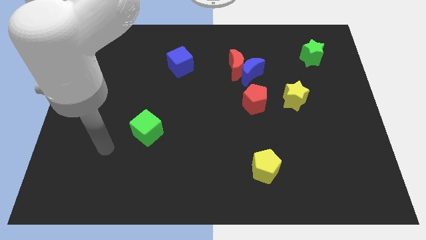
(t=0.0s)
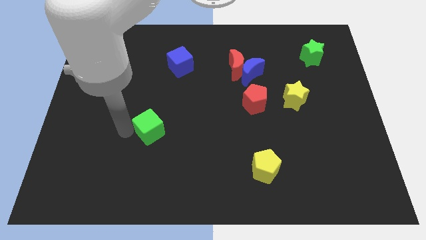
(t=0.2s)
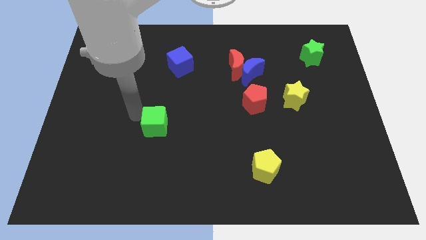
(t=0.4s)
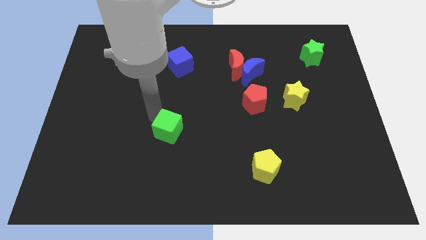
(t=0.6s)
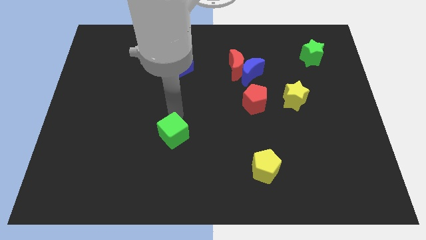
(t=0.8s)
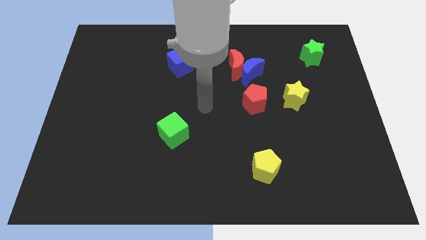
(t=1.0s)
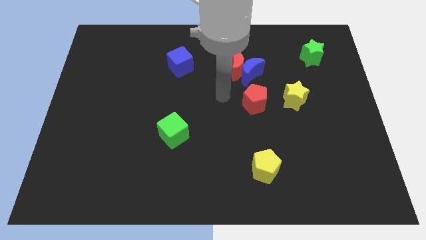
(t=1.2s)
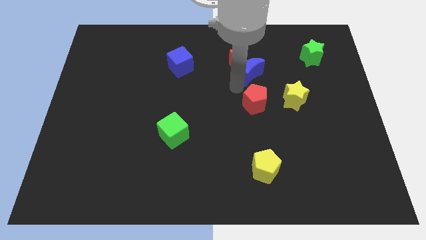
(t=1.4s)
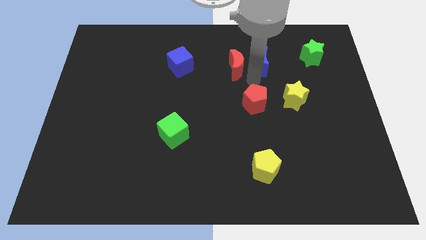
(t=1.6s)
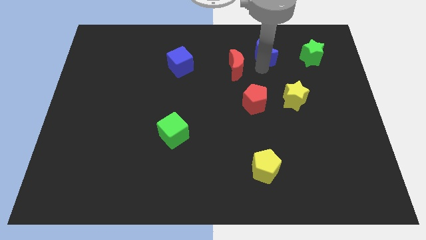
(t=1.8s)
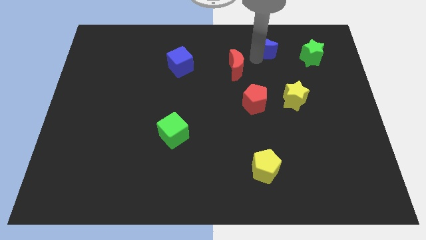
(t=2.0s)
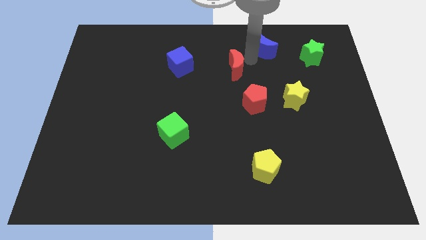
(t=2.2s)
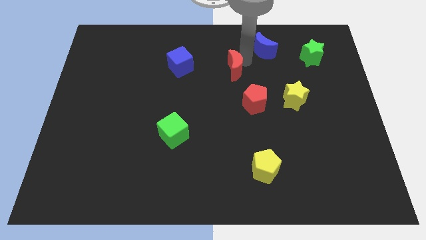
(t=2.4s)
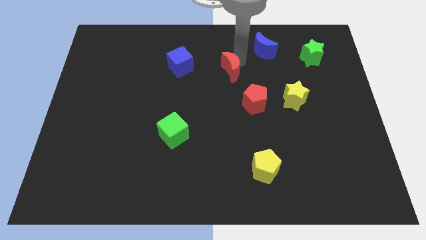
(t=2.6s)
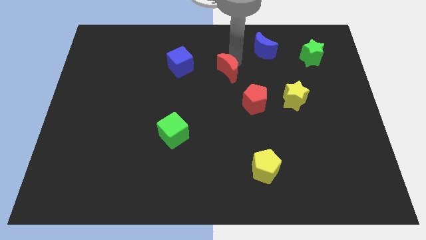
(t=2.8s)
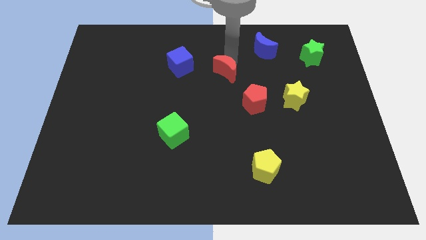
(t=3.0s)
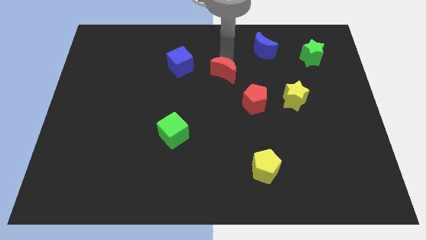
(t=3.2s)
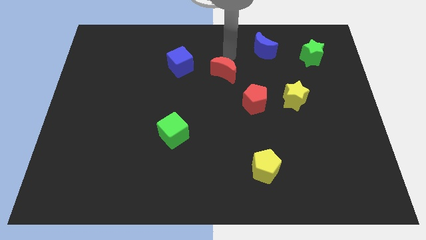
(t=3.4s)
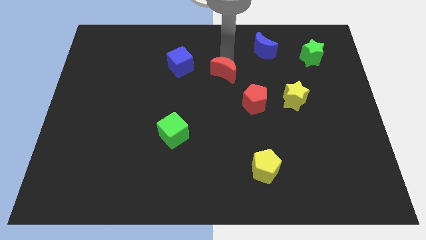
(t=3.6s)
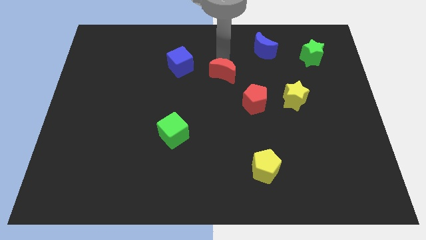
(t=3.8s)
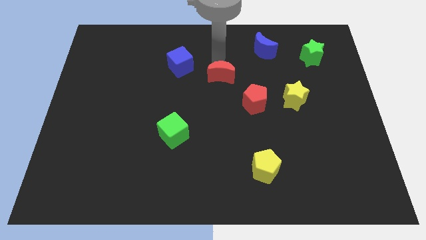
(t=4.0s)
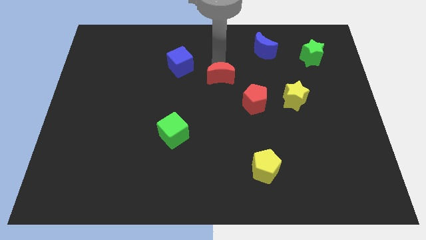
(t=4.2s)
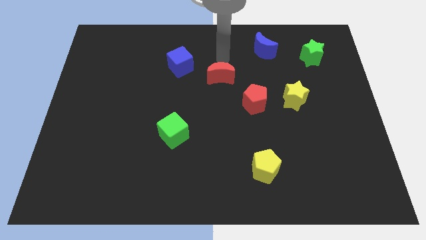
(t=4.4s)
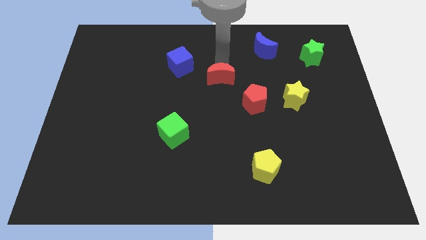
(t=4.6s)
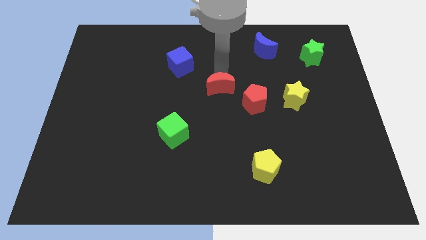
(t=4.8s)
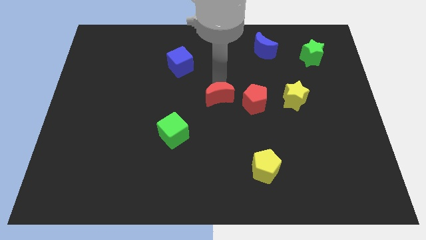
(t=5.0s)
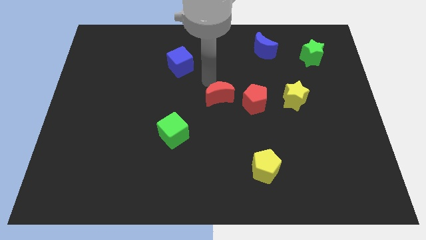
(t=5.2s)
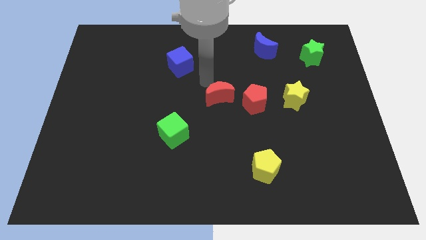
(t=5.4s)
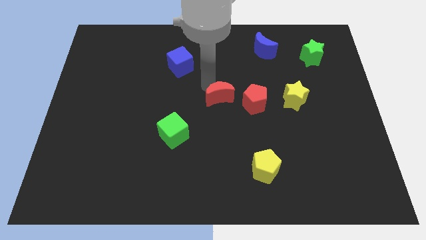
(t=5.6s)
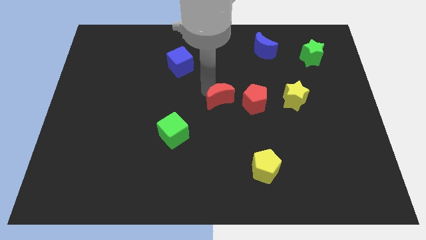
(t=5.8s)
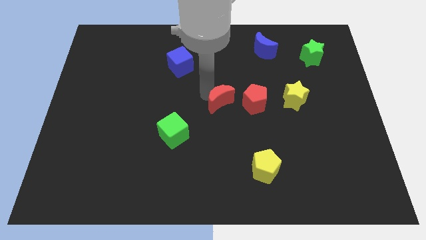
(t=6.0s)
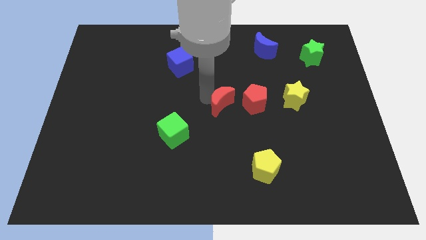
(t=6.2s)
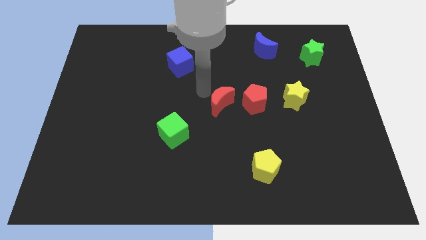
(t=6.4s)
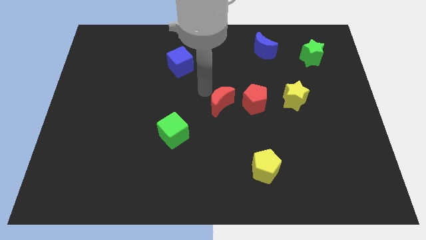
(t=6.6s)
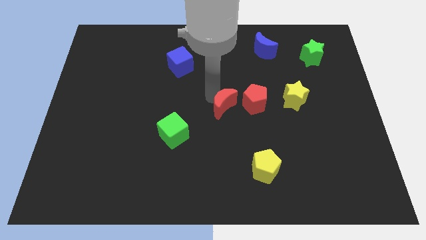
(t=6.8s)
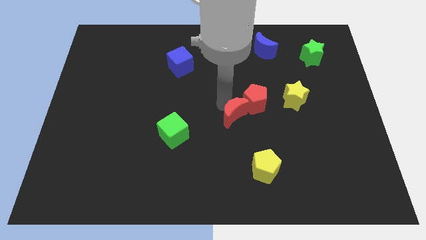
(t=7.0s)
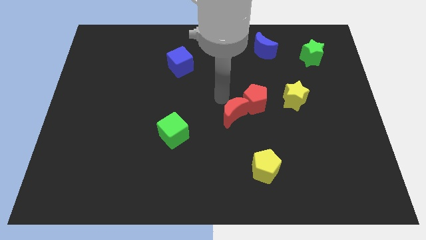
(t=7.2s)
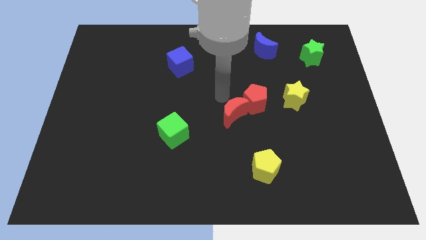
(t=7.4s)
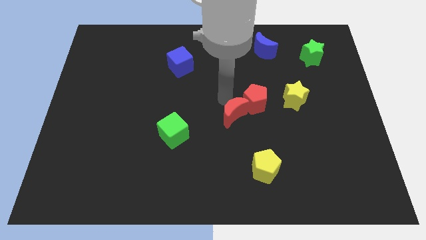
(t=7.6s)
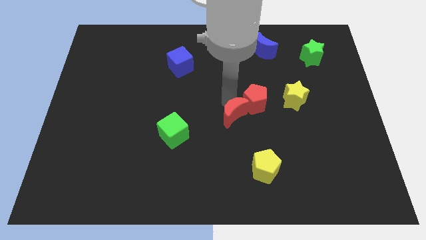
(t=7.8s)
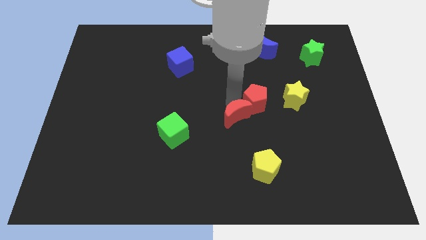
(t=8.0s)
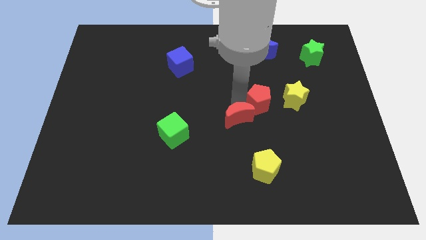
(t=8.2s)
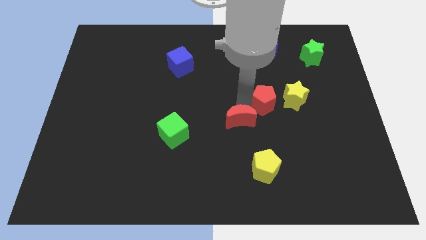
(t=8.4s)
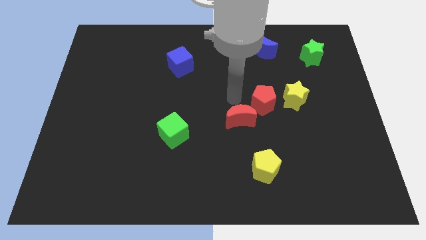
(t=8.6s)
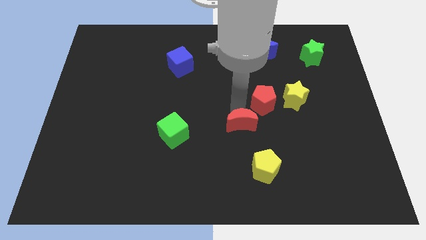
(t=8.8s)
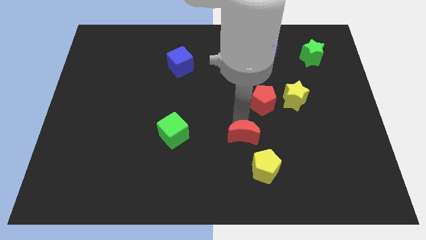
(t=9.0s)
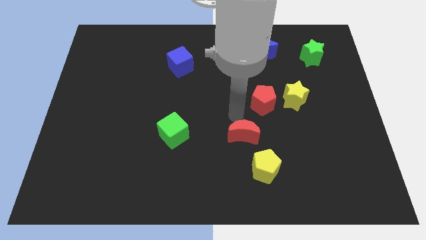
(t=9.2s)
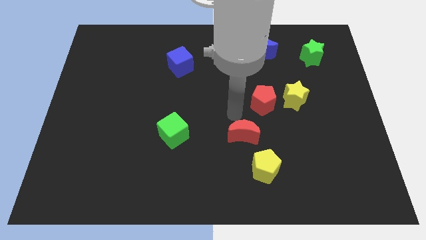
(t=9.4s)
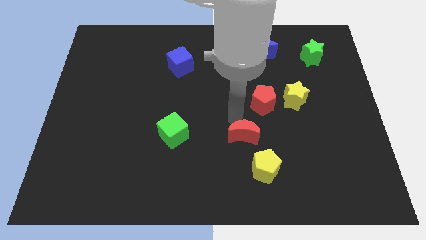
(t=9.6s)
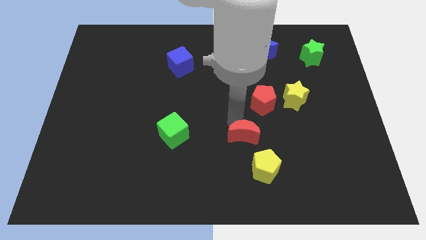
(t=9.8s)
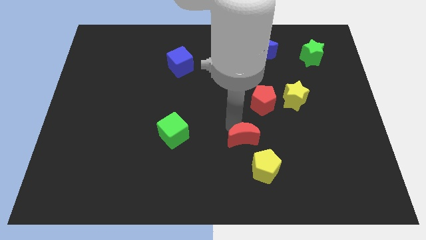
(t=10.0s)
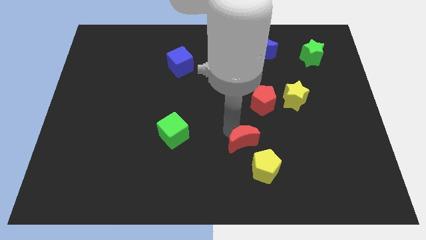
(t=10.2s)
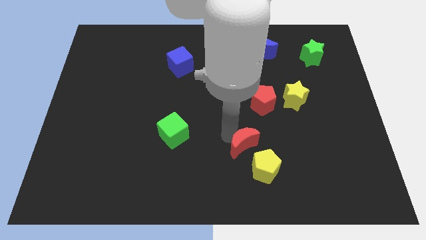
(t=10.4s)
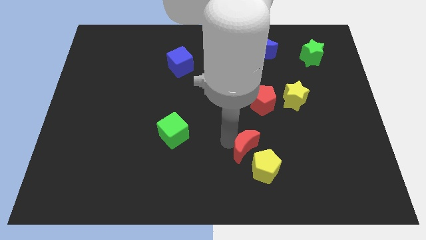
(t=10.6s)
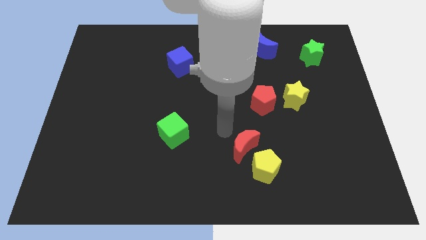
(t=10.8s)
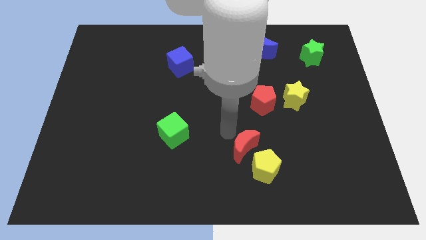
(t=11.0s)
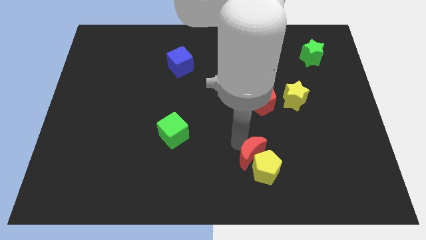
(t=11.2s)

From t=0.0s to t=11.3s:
slide the red moon towards the yellow pentagon

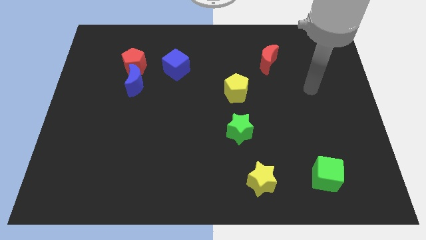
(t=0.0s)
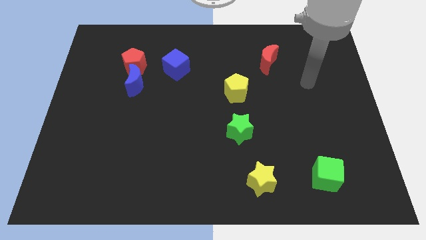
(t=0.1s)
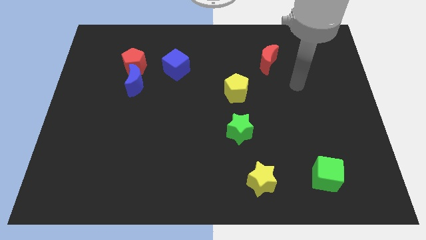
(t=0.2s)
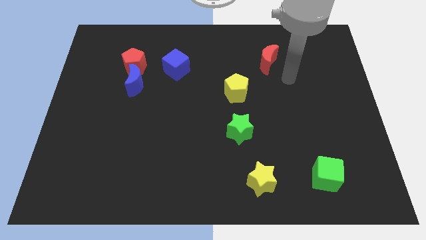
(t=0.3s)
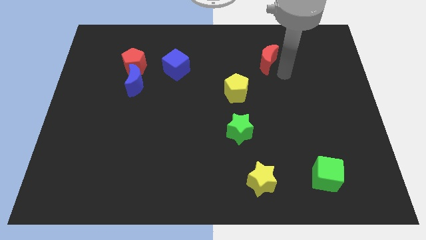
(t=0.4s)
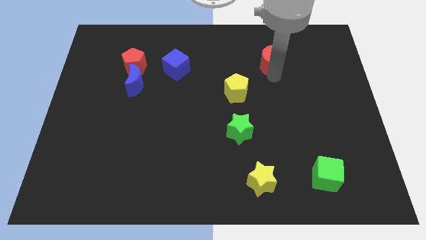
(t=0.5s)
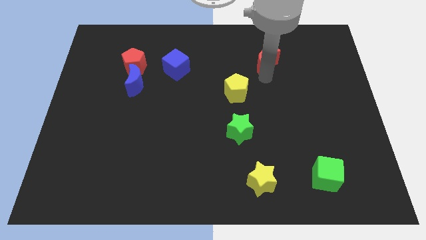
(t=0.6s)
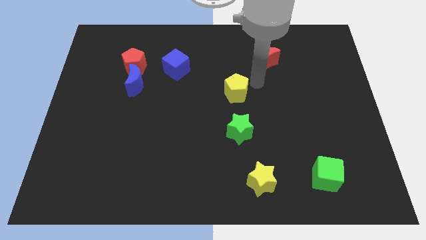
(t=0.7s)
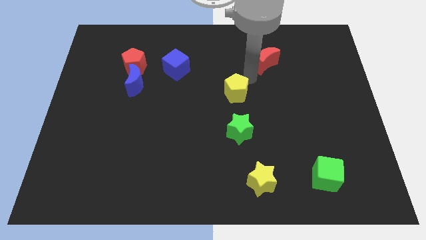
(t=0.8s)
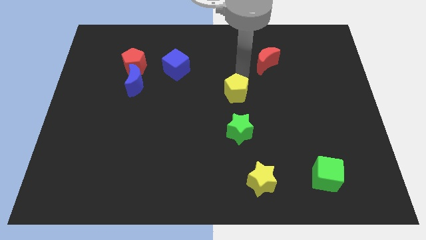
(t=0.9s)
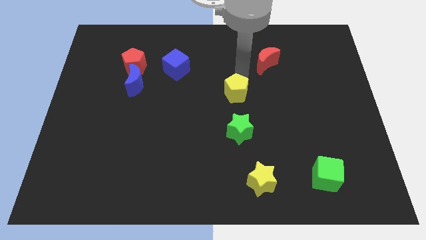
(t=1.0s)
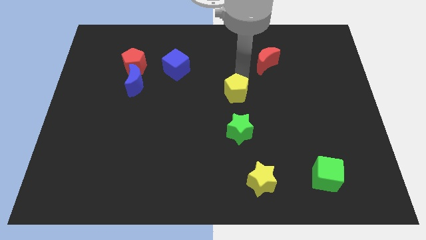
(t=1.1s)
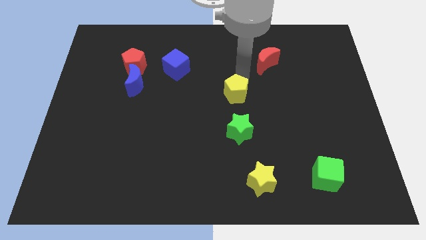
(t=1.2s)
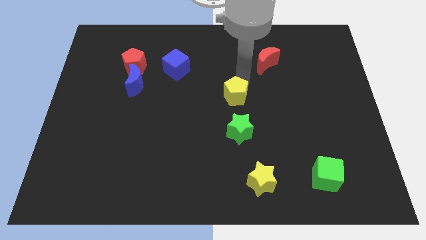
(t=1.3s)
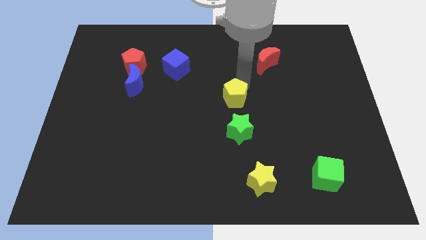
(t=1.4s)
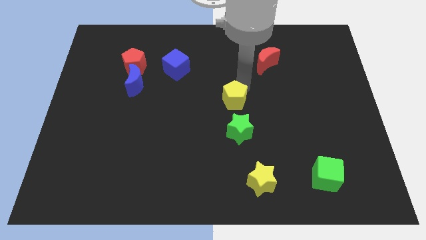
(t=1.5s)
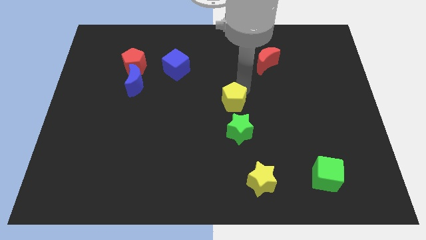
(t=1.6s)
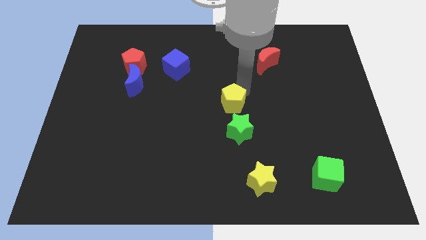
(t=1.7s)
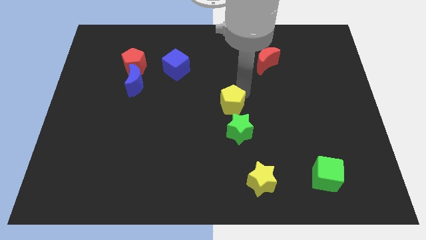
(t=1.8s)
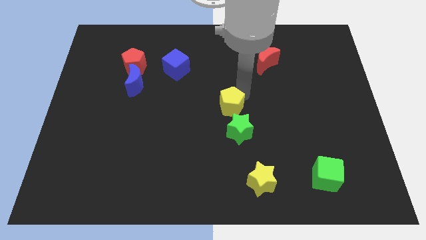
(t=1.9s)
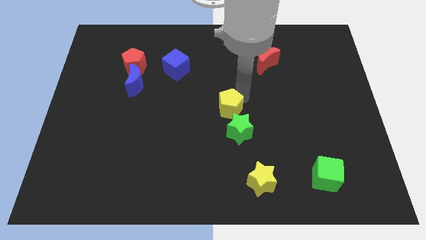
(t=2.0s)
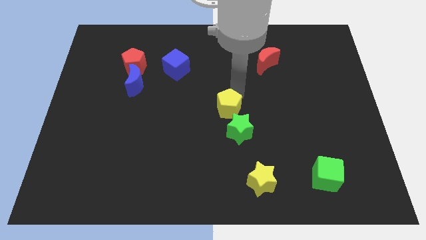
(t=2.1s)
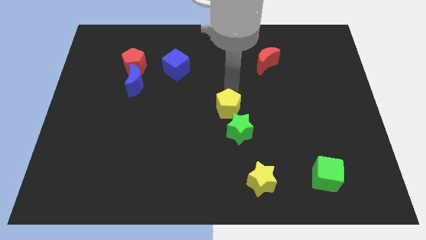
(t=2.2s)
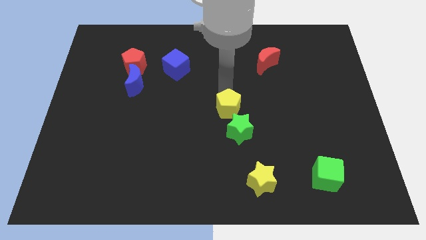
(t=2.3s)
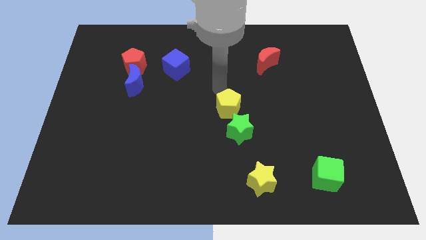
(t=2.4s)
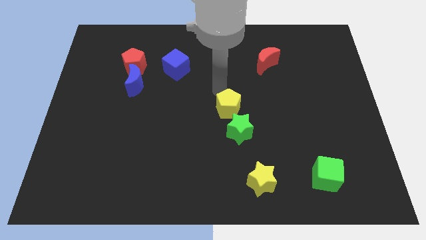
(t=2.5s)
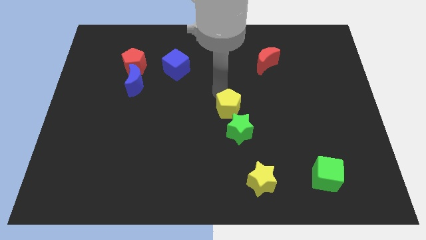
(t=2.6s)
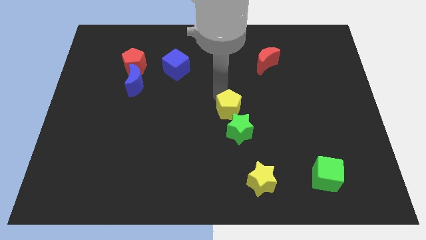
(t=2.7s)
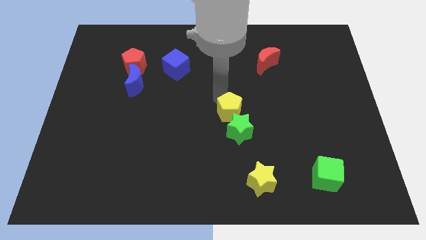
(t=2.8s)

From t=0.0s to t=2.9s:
put the yellow pentagon to the green star
